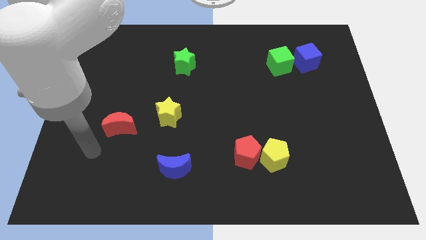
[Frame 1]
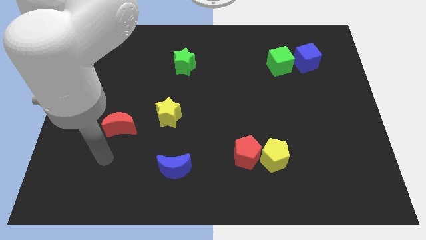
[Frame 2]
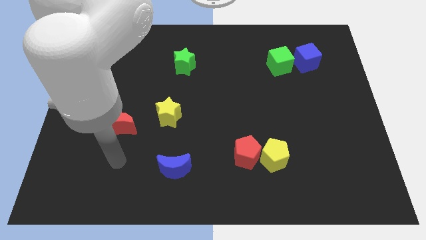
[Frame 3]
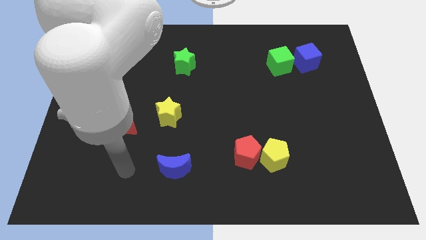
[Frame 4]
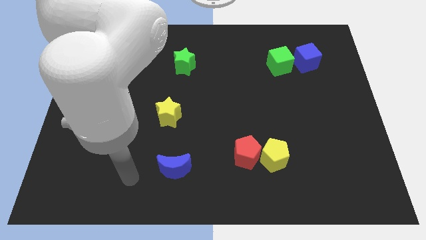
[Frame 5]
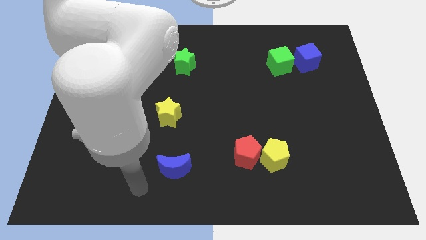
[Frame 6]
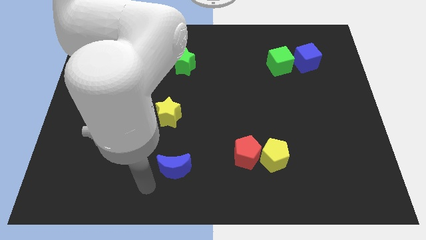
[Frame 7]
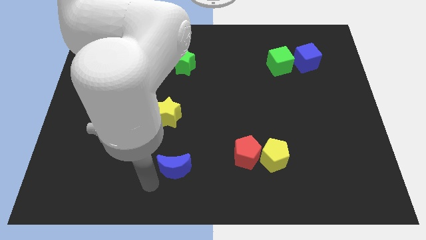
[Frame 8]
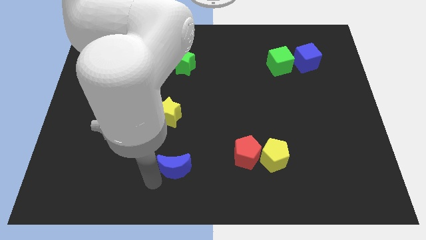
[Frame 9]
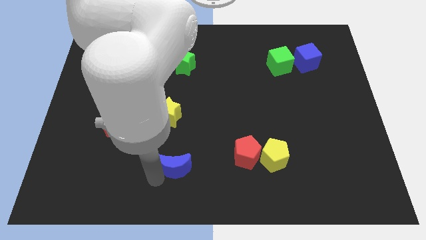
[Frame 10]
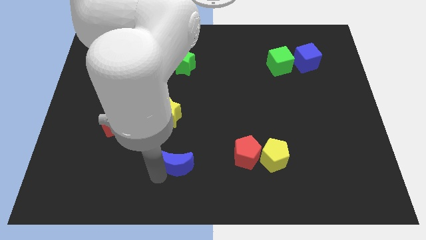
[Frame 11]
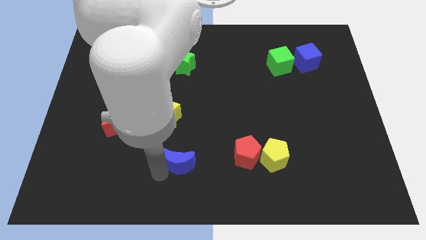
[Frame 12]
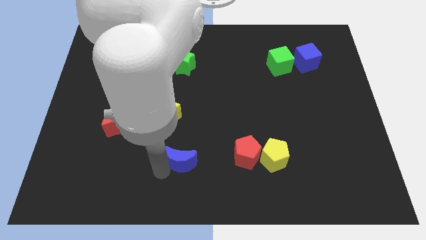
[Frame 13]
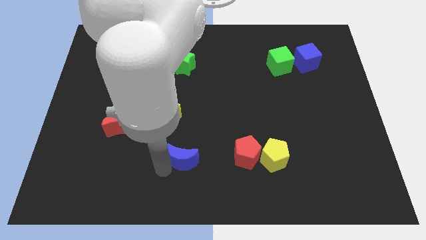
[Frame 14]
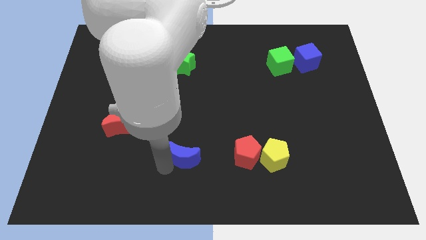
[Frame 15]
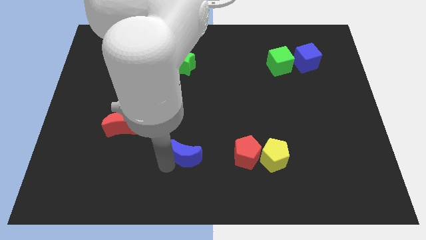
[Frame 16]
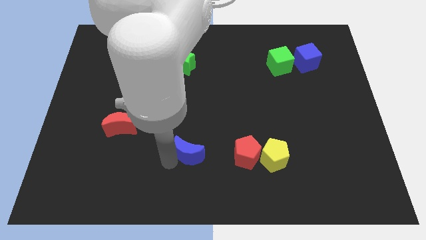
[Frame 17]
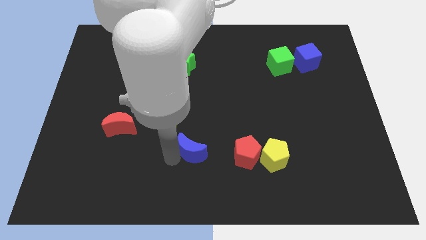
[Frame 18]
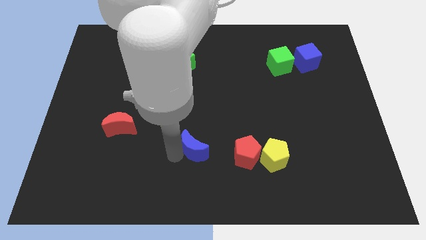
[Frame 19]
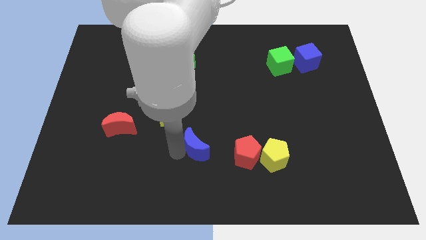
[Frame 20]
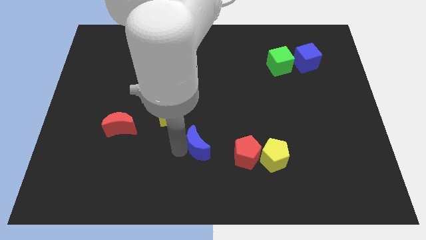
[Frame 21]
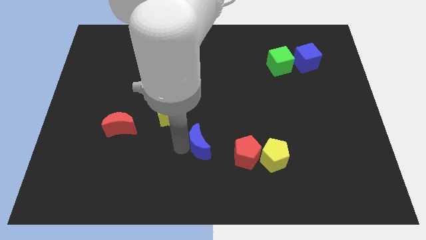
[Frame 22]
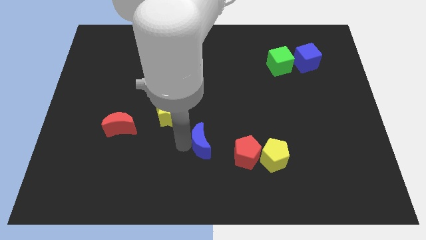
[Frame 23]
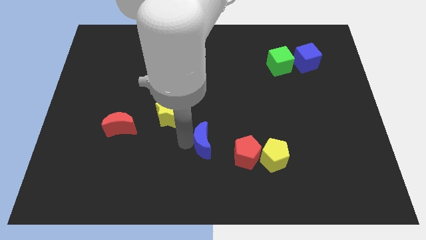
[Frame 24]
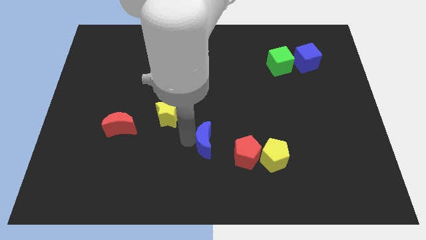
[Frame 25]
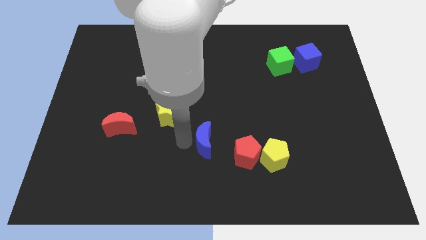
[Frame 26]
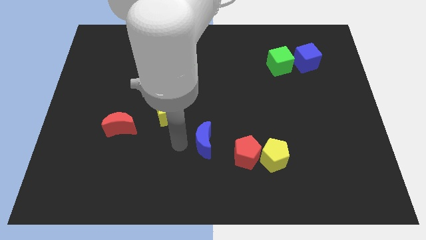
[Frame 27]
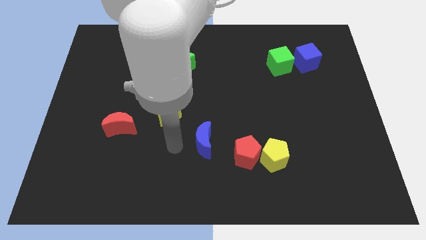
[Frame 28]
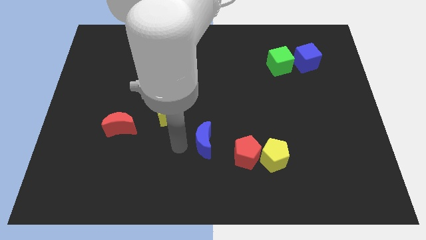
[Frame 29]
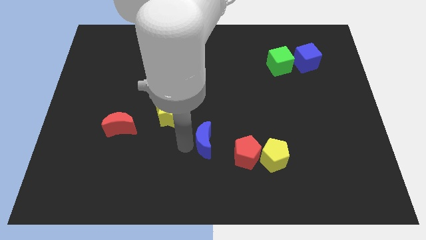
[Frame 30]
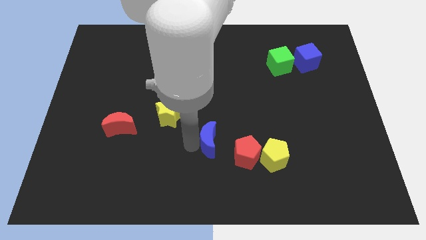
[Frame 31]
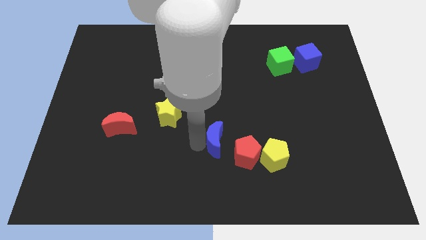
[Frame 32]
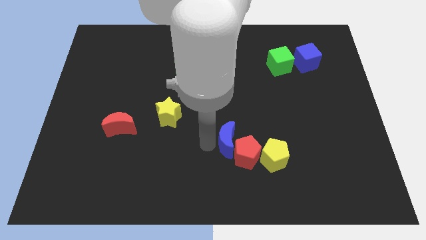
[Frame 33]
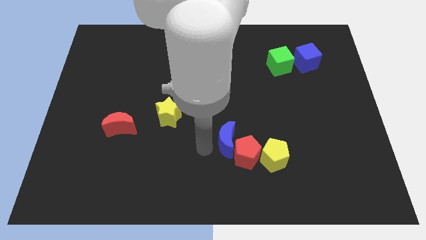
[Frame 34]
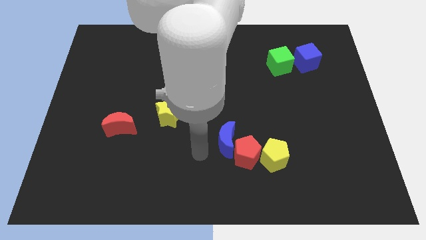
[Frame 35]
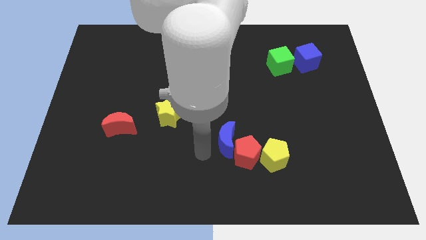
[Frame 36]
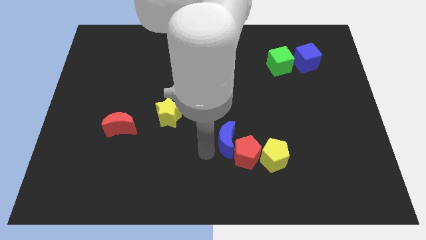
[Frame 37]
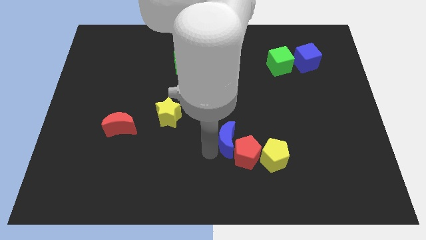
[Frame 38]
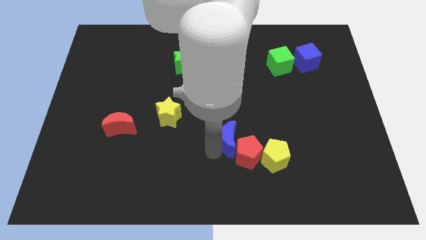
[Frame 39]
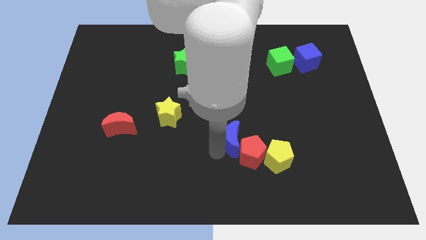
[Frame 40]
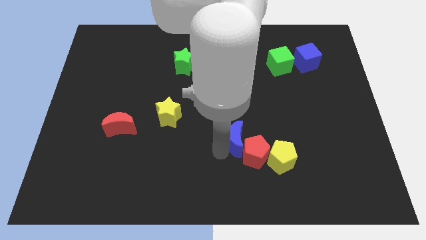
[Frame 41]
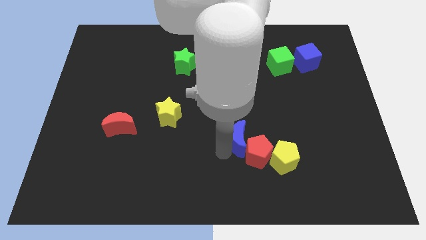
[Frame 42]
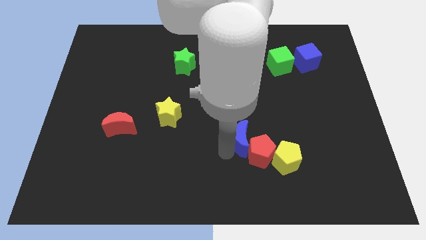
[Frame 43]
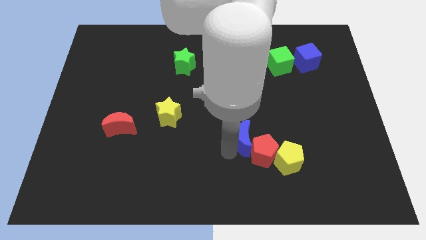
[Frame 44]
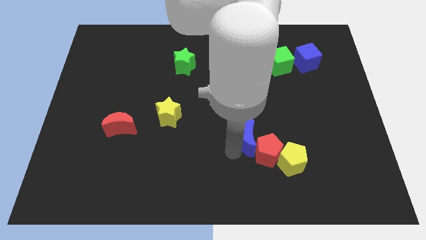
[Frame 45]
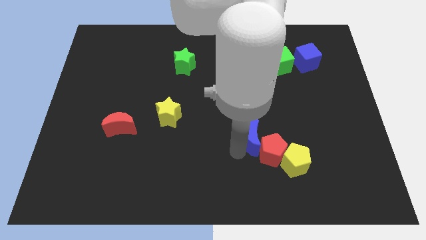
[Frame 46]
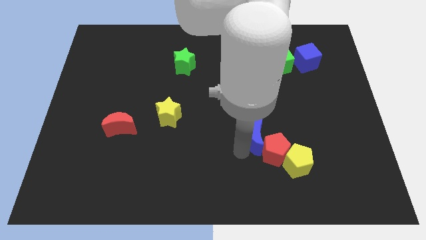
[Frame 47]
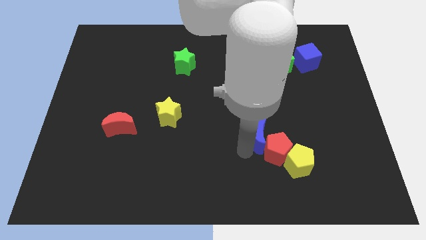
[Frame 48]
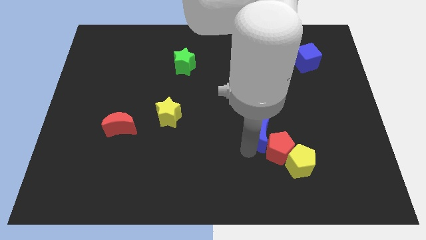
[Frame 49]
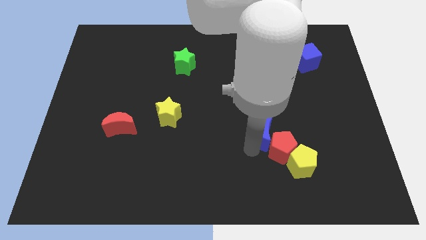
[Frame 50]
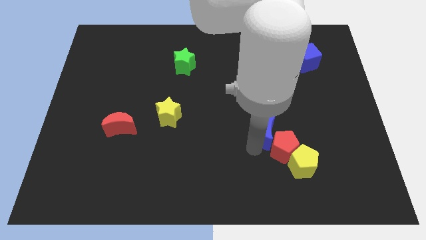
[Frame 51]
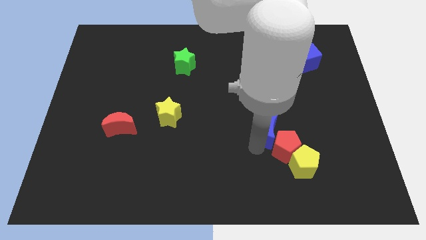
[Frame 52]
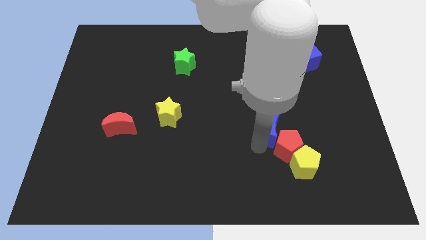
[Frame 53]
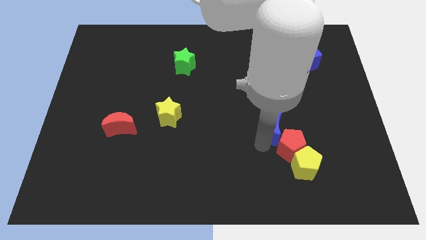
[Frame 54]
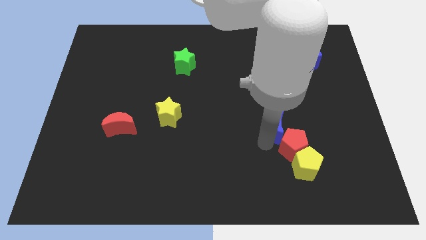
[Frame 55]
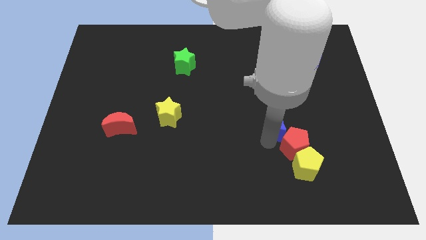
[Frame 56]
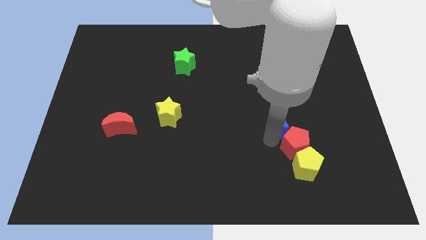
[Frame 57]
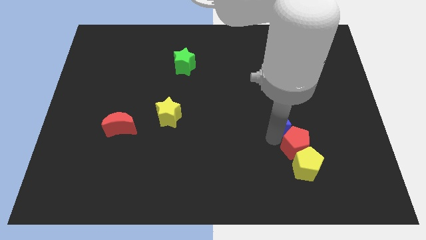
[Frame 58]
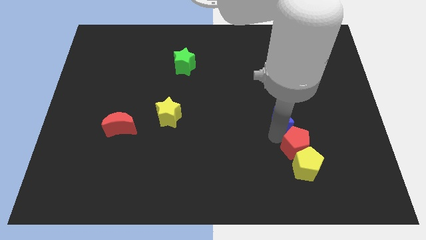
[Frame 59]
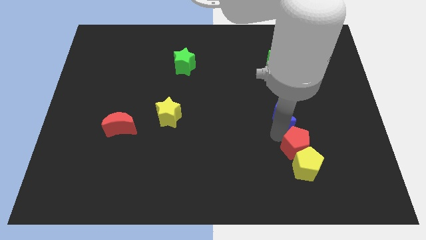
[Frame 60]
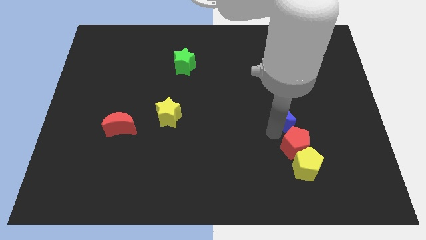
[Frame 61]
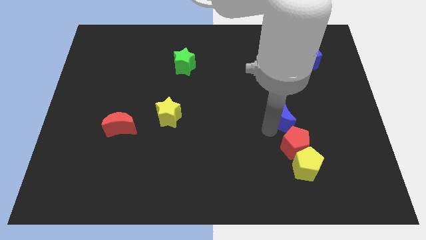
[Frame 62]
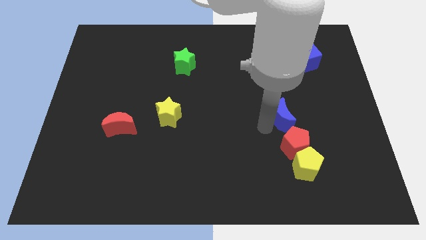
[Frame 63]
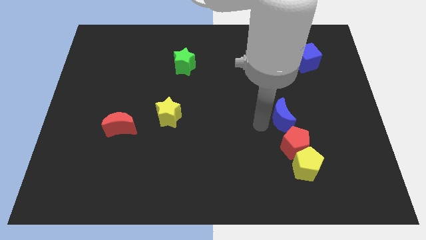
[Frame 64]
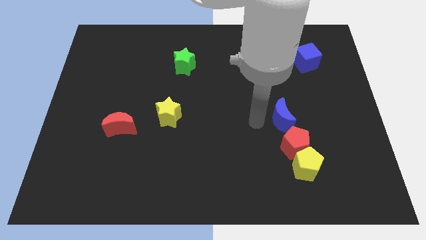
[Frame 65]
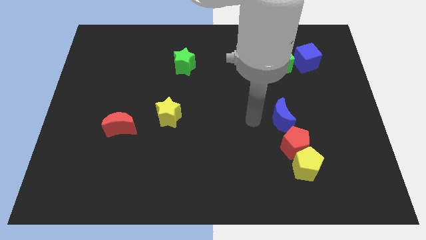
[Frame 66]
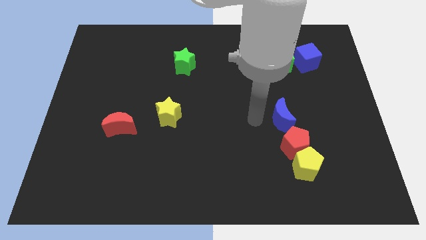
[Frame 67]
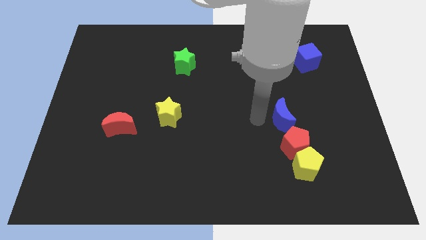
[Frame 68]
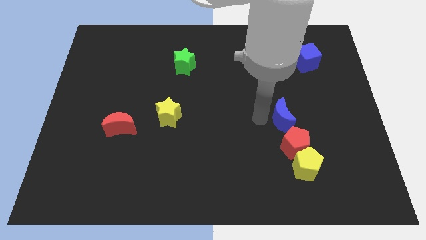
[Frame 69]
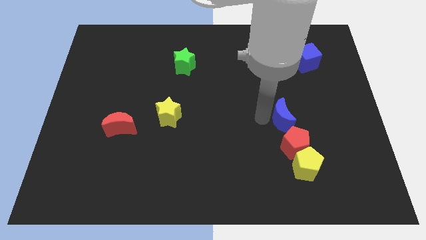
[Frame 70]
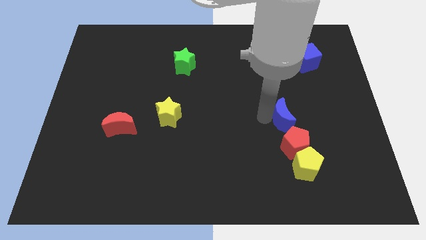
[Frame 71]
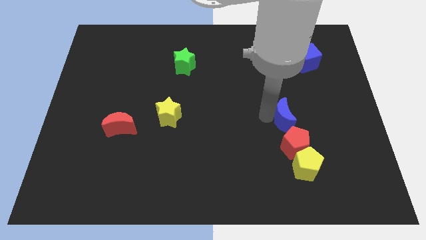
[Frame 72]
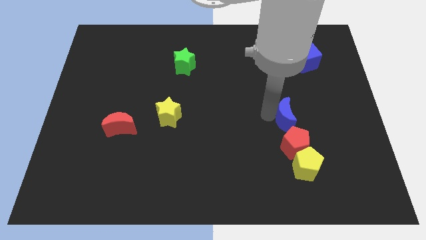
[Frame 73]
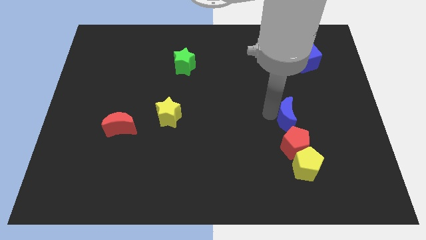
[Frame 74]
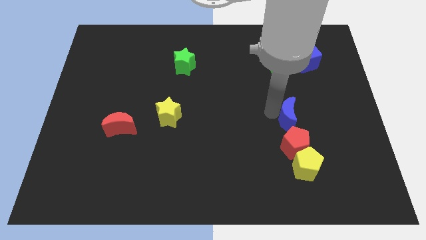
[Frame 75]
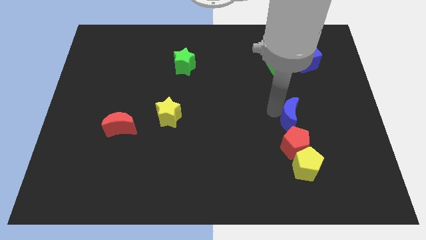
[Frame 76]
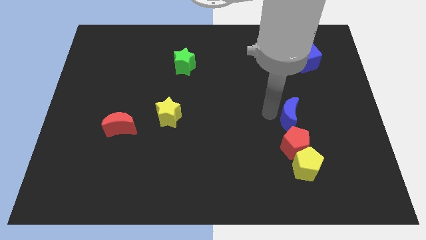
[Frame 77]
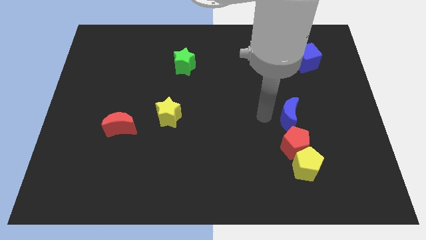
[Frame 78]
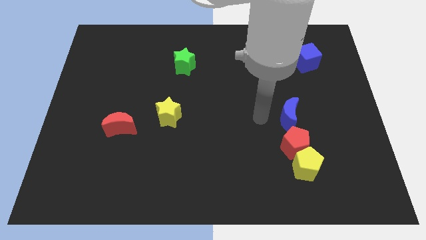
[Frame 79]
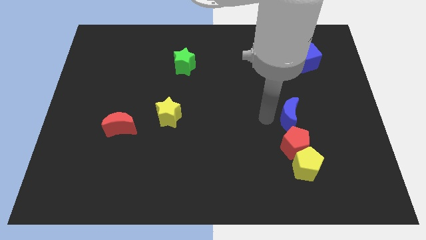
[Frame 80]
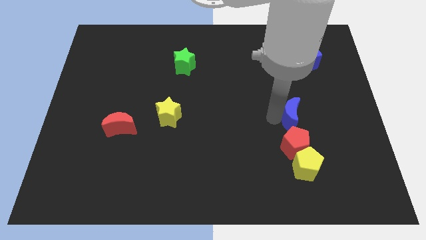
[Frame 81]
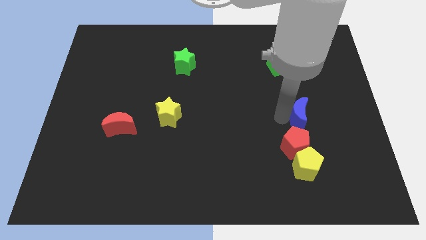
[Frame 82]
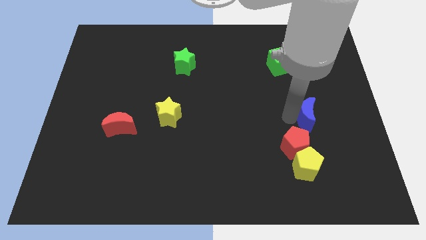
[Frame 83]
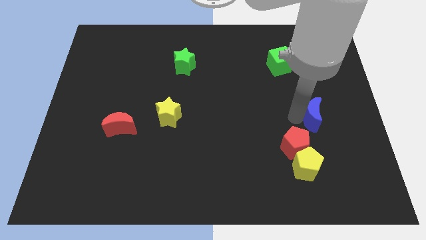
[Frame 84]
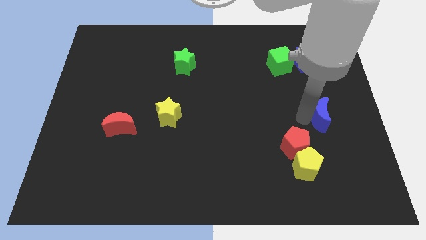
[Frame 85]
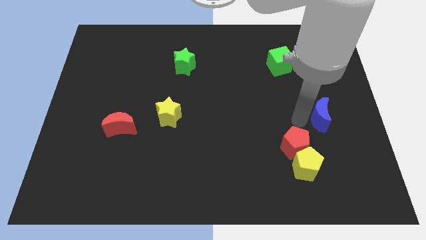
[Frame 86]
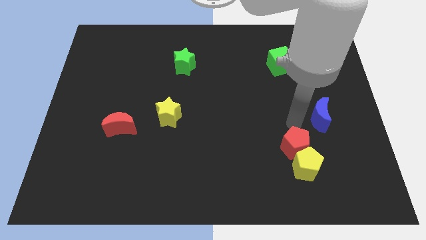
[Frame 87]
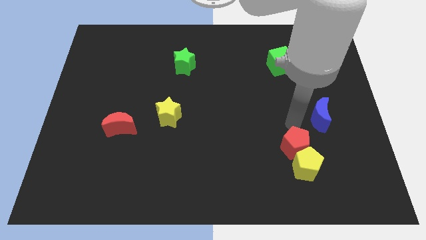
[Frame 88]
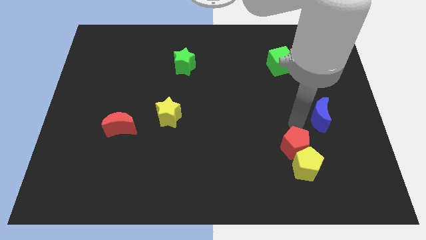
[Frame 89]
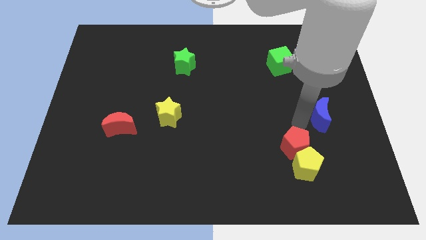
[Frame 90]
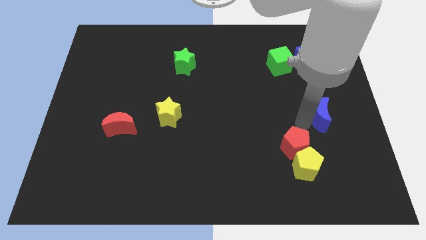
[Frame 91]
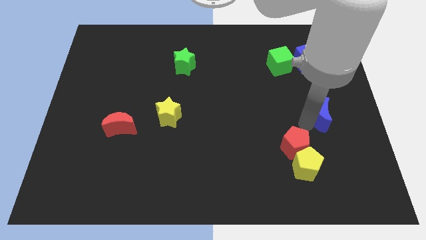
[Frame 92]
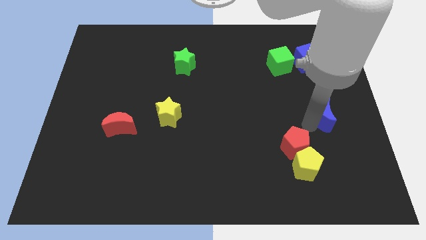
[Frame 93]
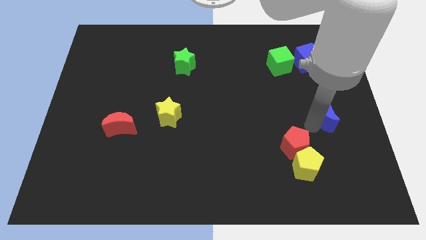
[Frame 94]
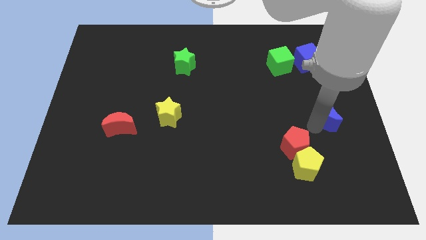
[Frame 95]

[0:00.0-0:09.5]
slide the blue moon to the right side of the board
